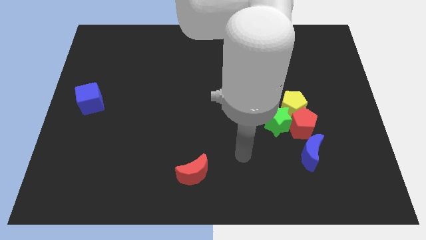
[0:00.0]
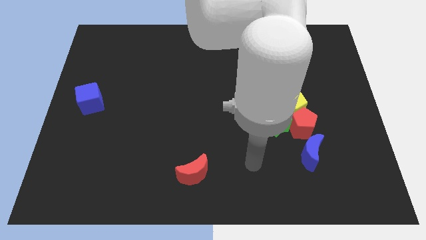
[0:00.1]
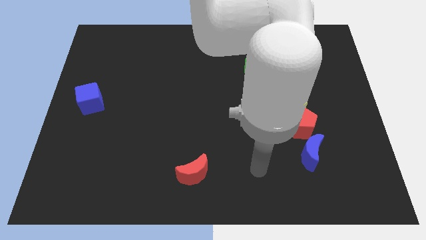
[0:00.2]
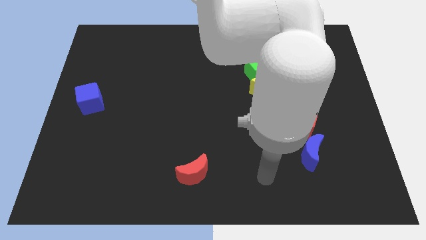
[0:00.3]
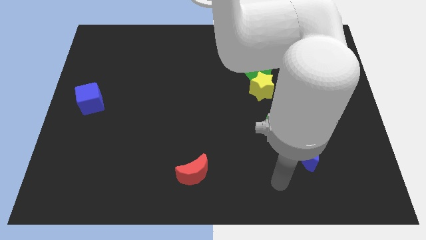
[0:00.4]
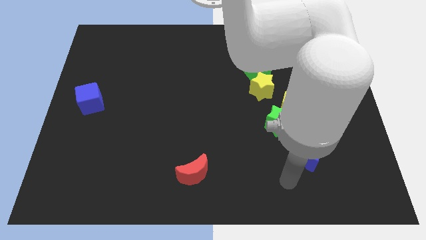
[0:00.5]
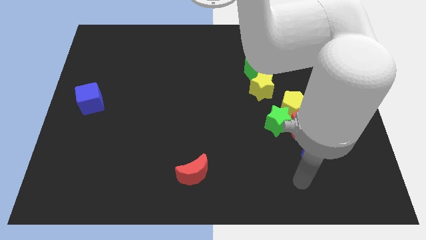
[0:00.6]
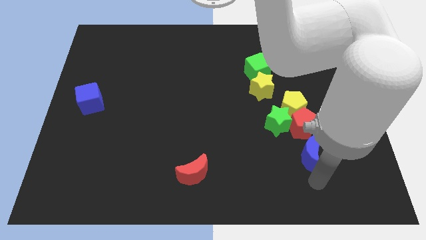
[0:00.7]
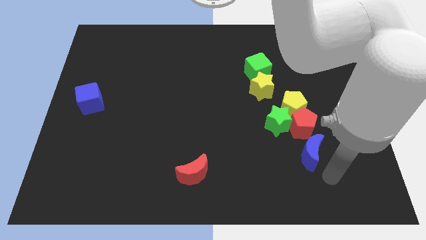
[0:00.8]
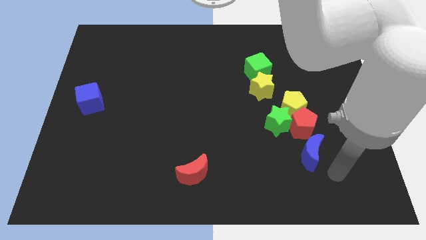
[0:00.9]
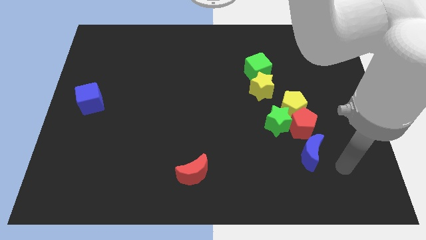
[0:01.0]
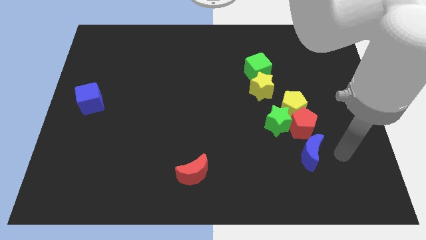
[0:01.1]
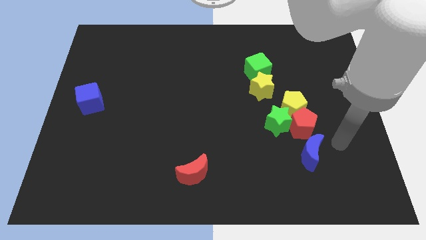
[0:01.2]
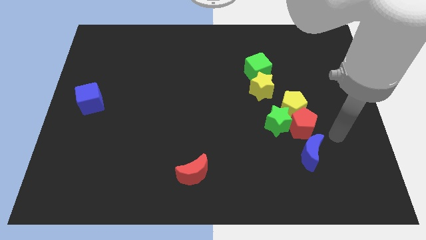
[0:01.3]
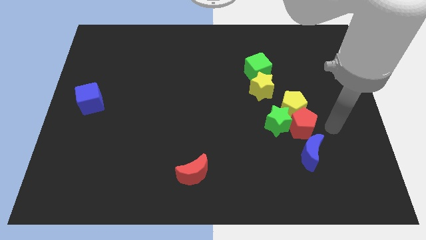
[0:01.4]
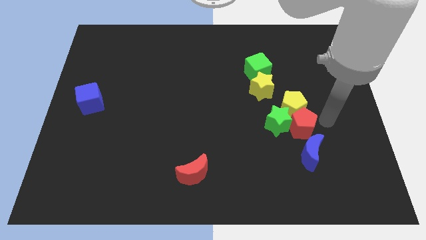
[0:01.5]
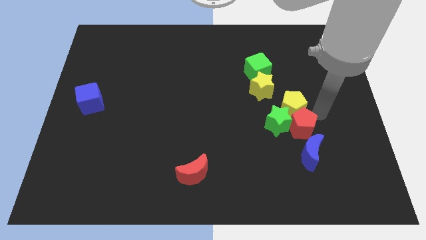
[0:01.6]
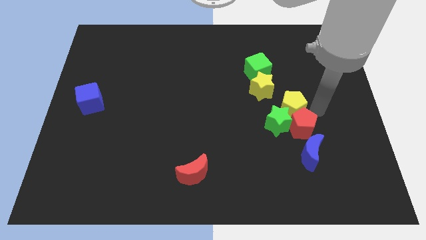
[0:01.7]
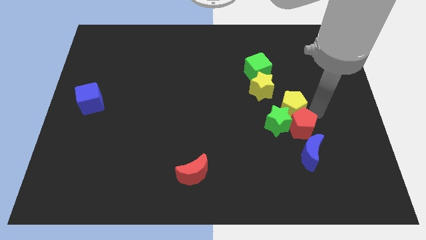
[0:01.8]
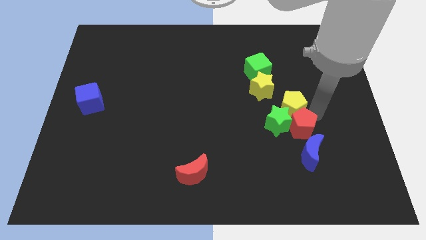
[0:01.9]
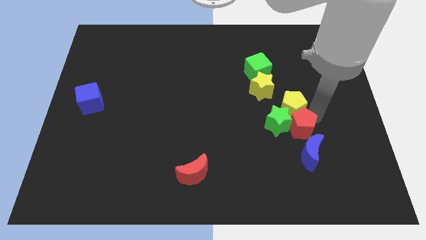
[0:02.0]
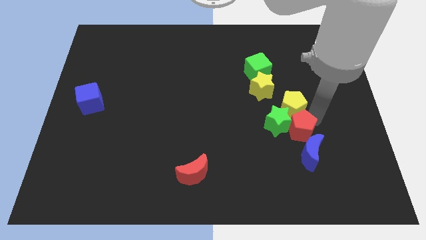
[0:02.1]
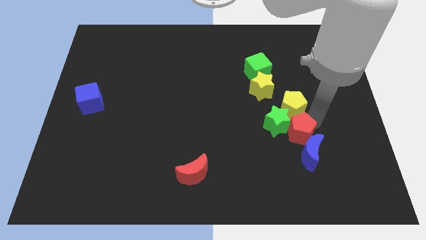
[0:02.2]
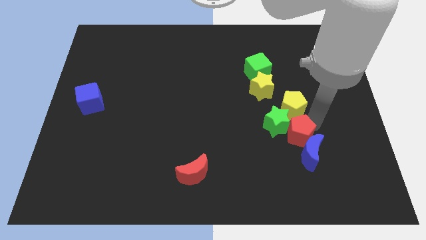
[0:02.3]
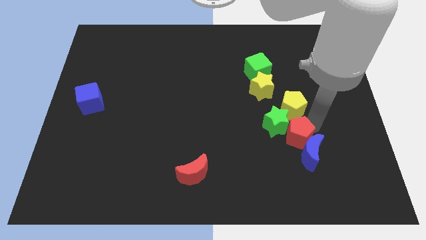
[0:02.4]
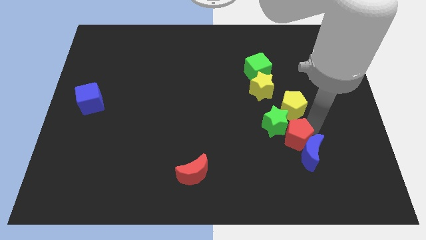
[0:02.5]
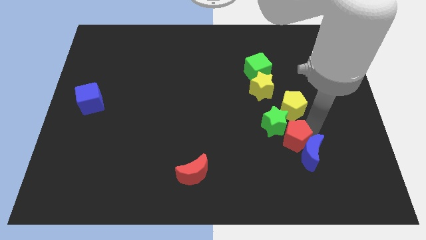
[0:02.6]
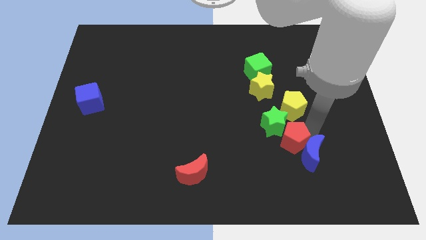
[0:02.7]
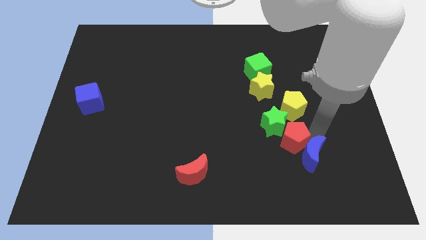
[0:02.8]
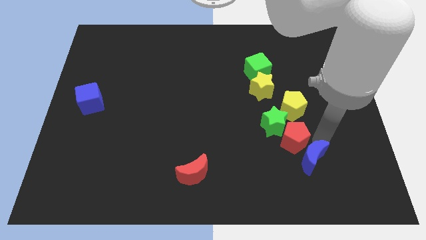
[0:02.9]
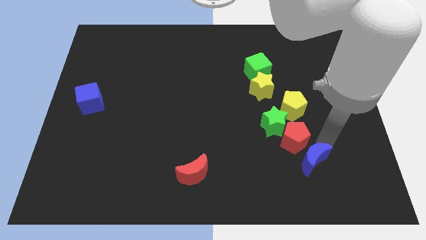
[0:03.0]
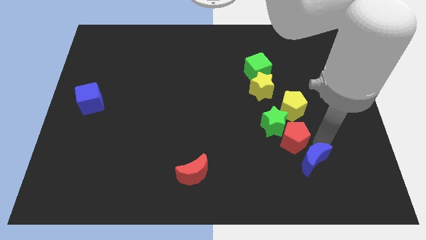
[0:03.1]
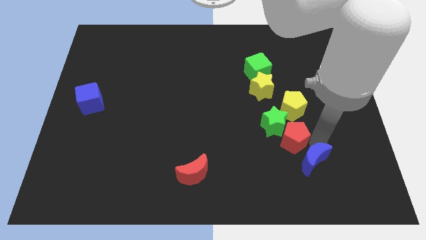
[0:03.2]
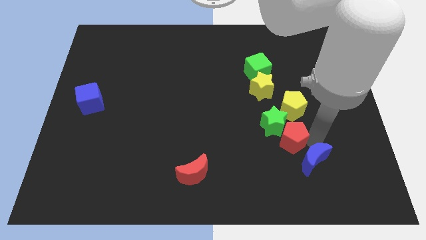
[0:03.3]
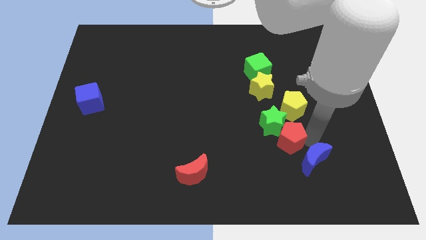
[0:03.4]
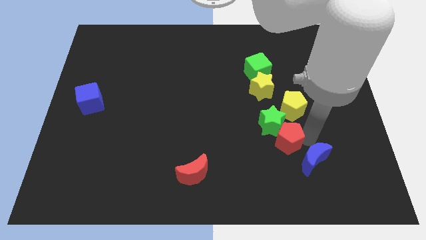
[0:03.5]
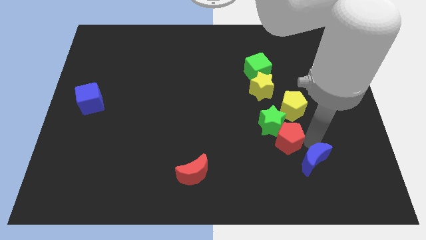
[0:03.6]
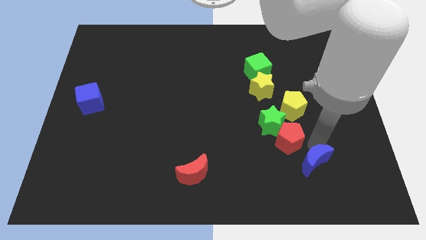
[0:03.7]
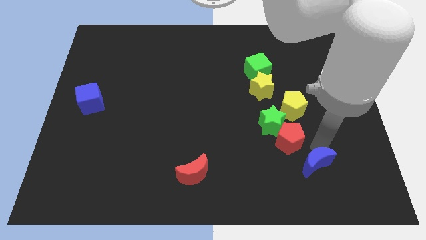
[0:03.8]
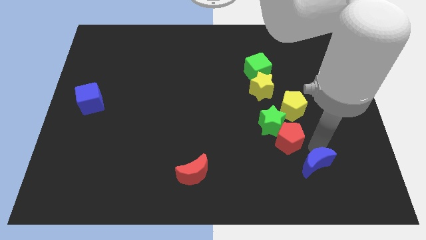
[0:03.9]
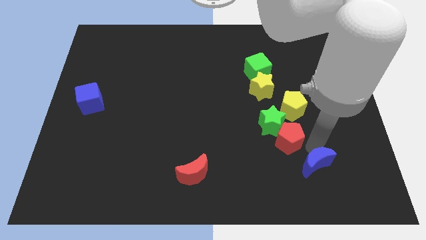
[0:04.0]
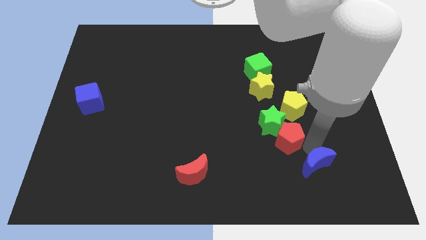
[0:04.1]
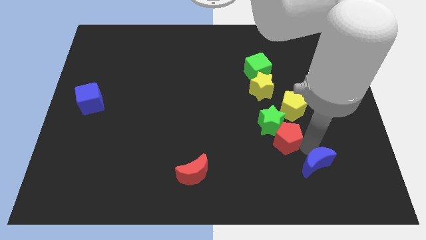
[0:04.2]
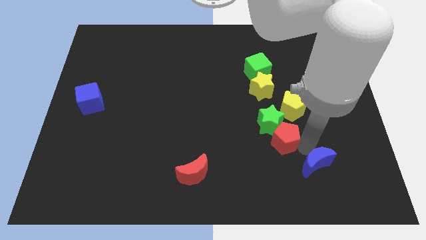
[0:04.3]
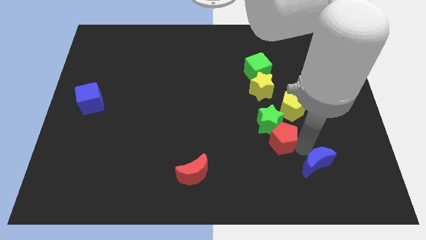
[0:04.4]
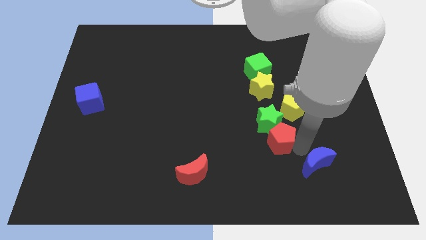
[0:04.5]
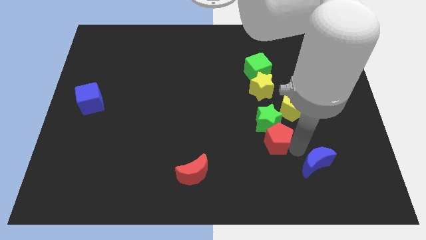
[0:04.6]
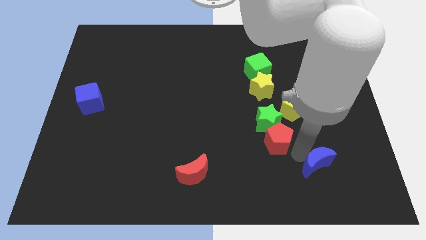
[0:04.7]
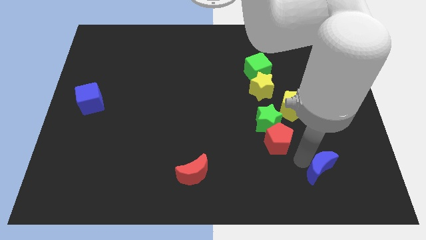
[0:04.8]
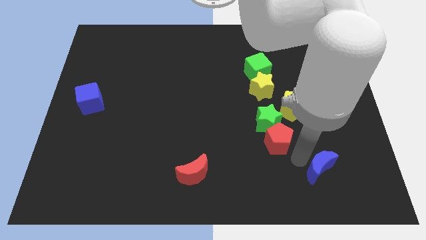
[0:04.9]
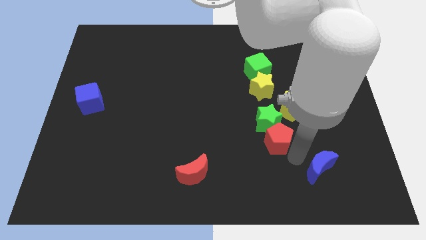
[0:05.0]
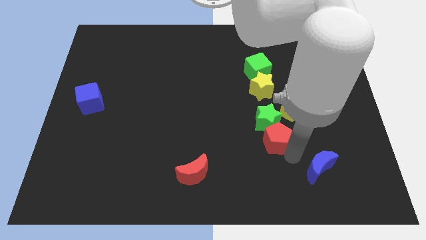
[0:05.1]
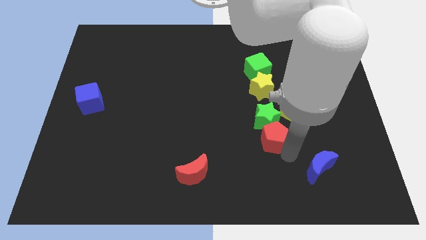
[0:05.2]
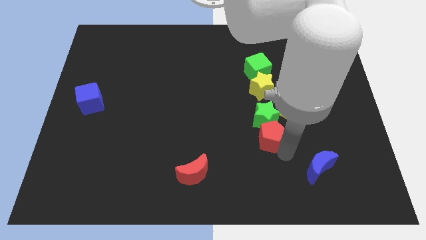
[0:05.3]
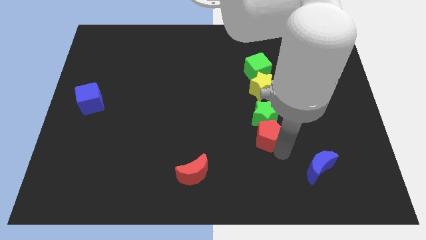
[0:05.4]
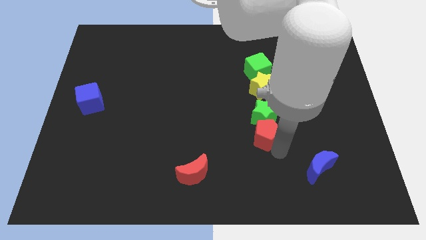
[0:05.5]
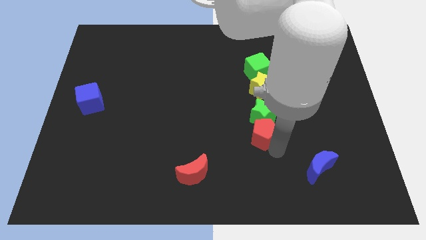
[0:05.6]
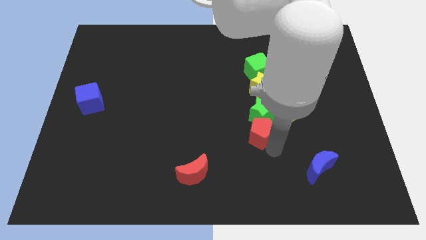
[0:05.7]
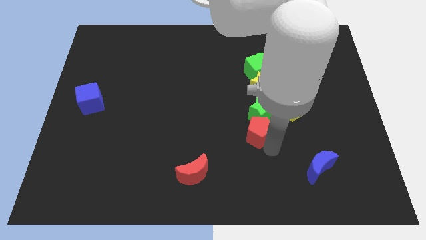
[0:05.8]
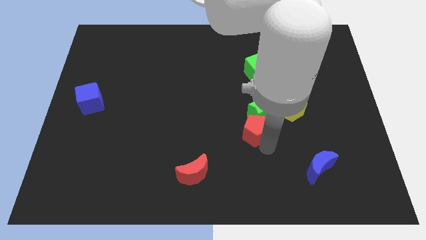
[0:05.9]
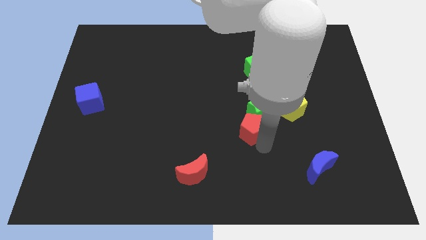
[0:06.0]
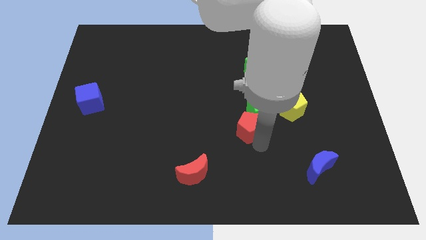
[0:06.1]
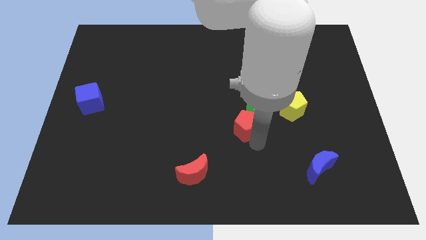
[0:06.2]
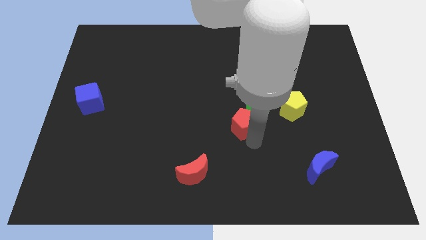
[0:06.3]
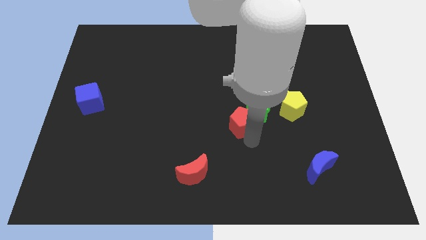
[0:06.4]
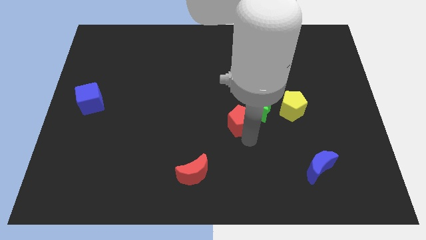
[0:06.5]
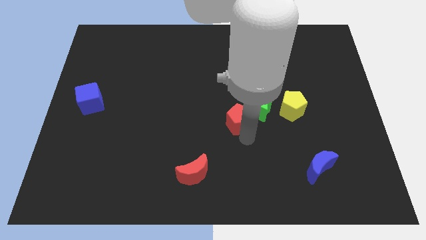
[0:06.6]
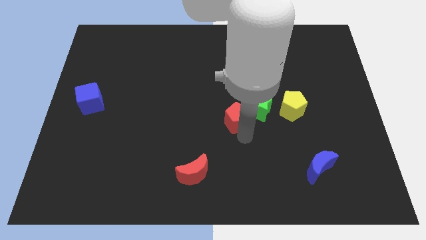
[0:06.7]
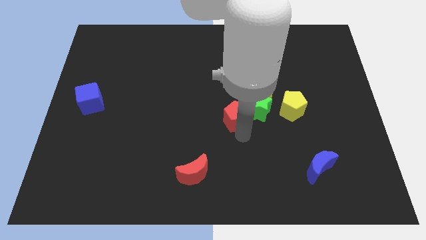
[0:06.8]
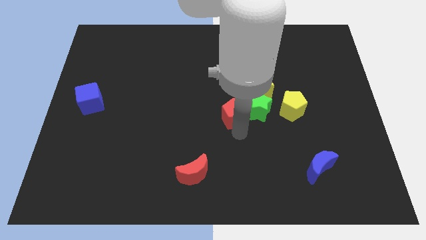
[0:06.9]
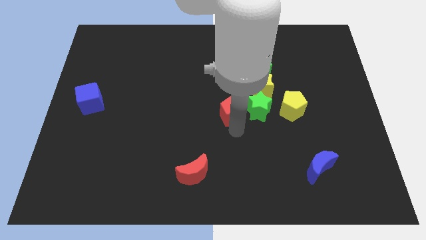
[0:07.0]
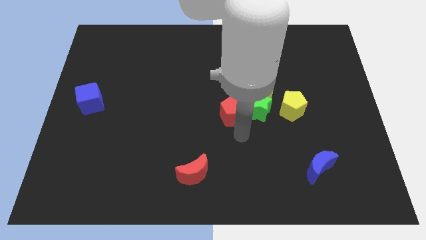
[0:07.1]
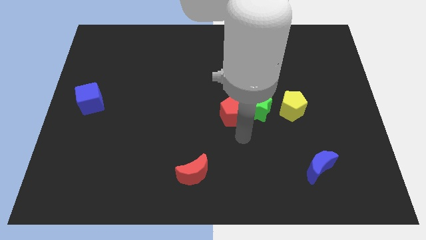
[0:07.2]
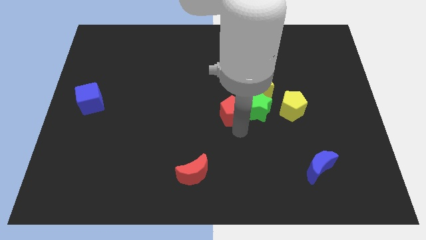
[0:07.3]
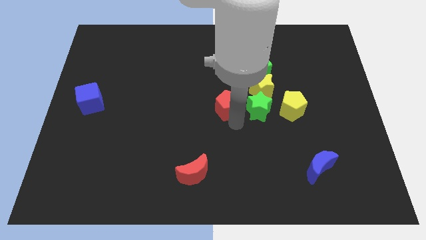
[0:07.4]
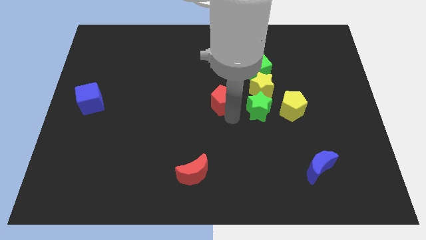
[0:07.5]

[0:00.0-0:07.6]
move the red pentagon to the left side of the yellow star
